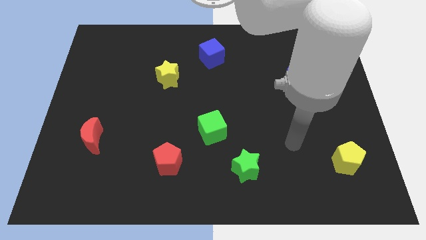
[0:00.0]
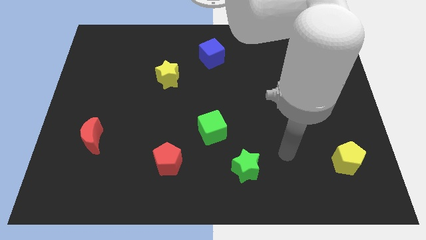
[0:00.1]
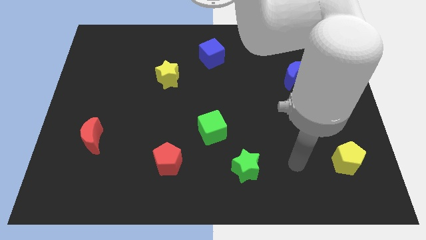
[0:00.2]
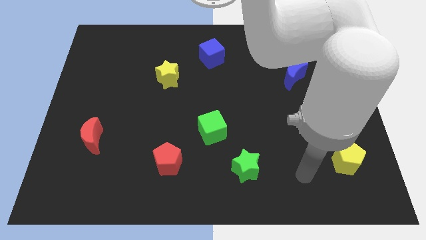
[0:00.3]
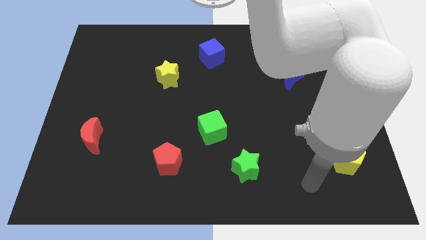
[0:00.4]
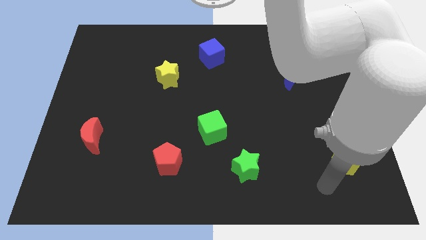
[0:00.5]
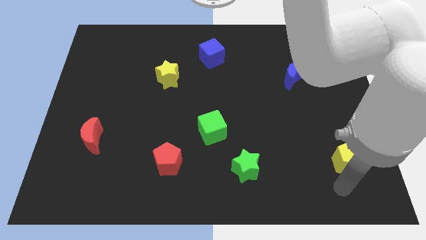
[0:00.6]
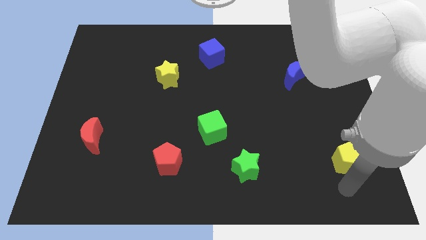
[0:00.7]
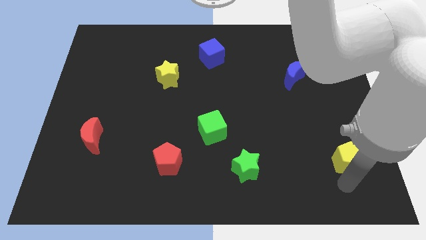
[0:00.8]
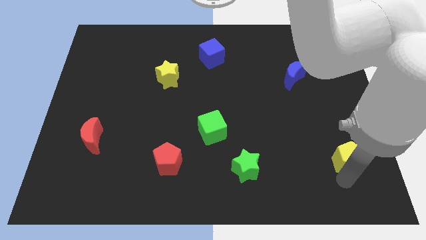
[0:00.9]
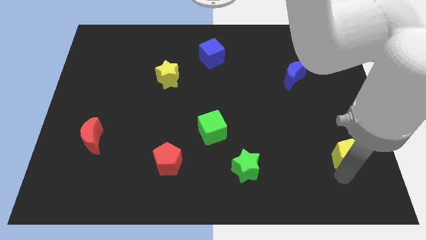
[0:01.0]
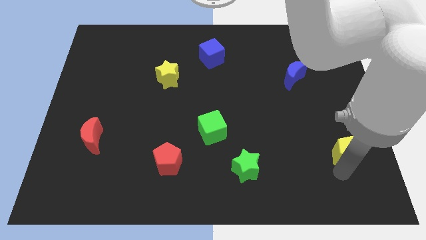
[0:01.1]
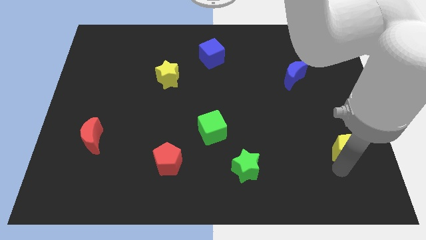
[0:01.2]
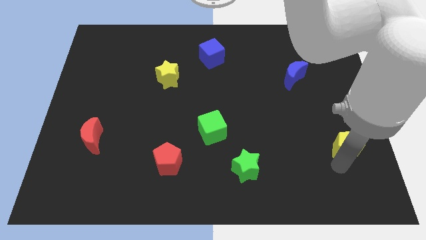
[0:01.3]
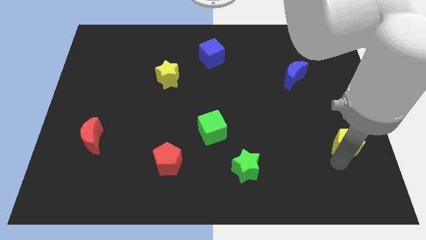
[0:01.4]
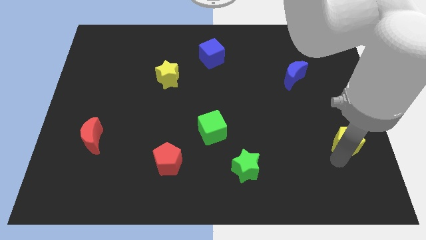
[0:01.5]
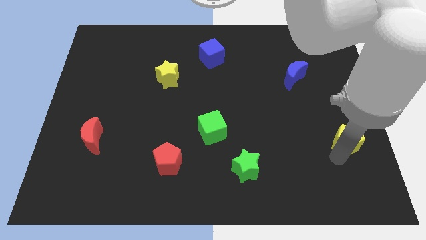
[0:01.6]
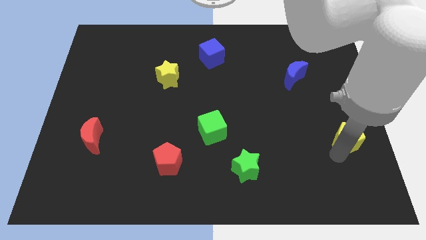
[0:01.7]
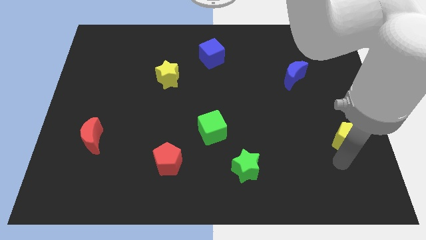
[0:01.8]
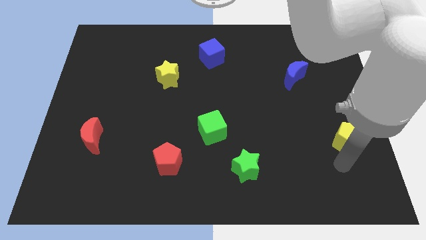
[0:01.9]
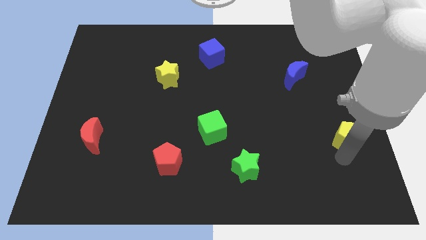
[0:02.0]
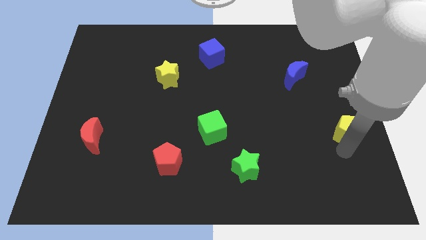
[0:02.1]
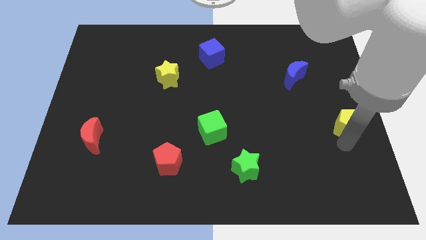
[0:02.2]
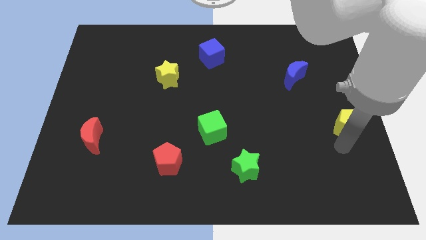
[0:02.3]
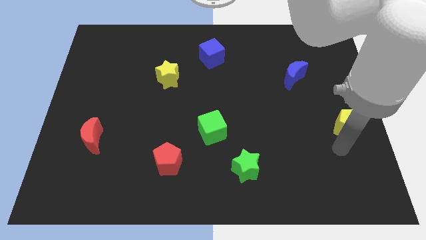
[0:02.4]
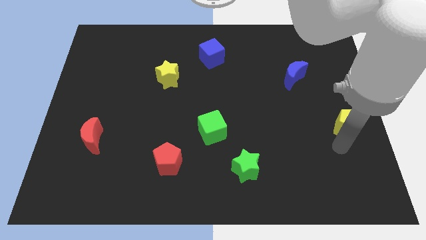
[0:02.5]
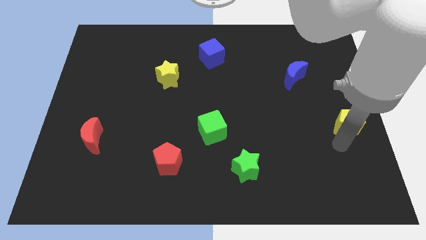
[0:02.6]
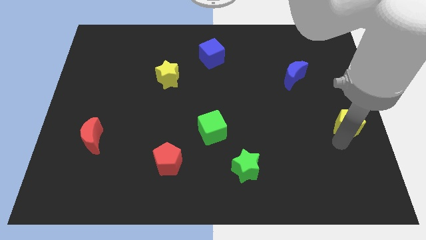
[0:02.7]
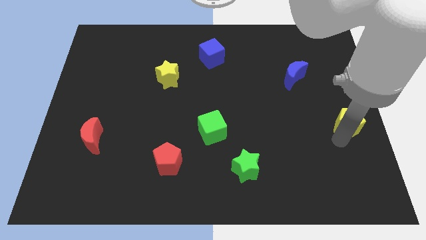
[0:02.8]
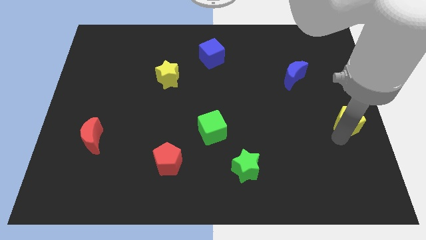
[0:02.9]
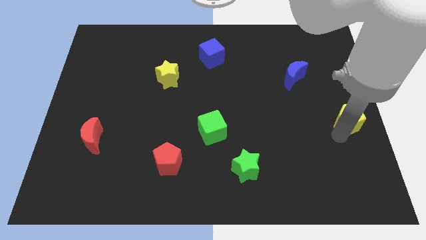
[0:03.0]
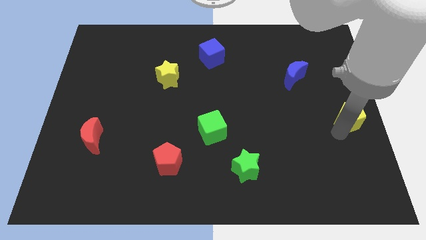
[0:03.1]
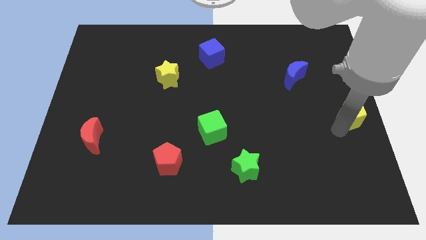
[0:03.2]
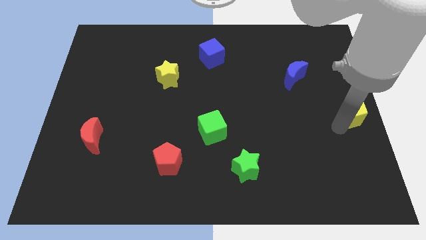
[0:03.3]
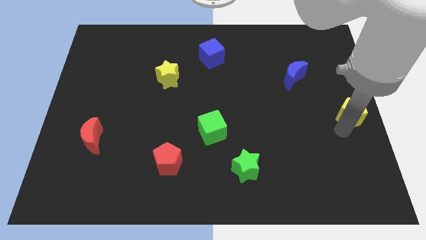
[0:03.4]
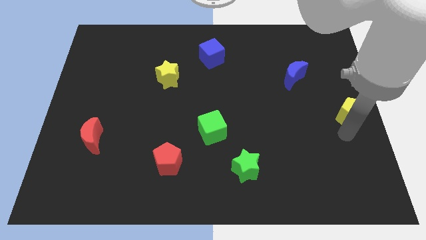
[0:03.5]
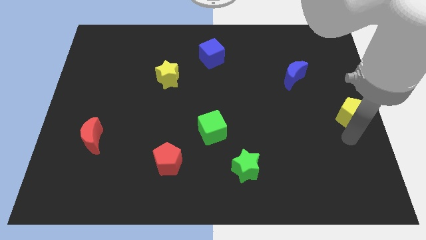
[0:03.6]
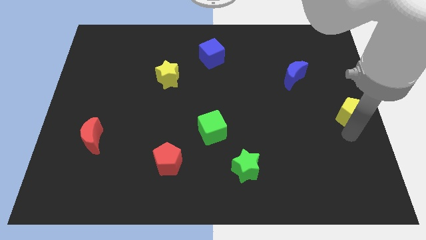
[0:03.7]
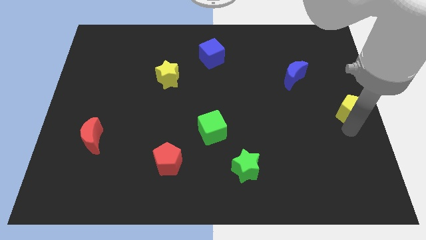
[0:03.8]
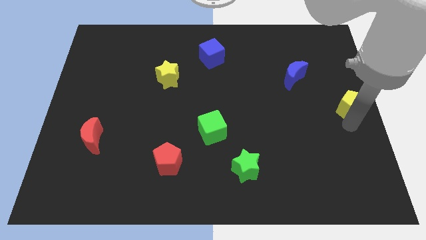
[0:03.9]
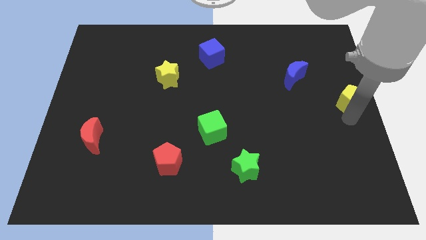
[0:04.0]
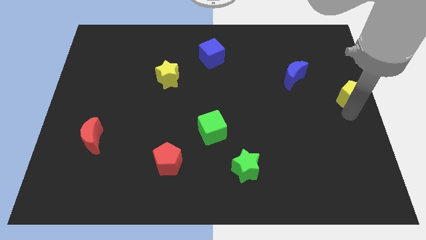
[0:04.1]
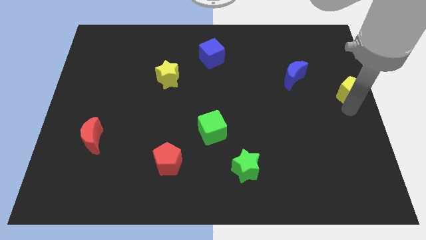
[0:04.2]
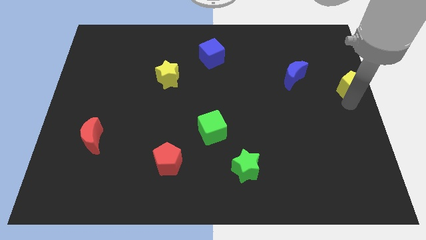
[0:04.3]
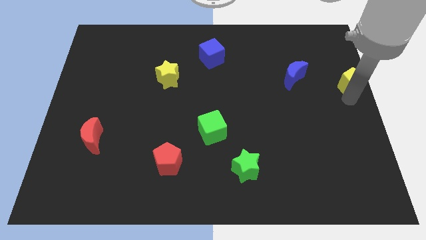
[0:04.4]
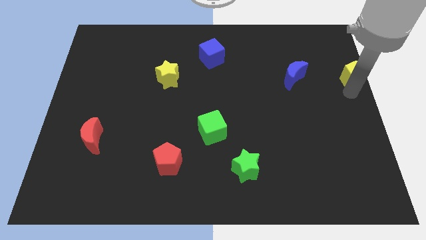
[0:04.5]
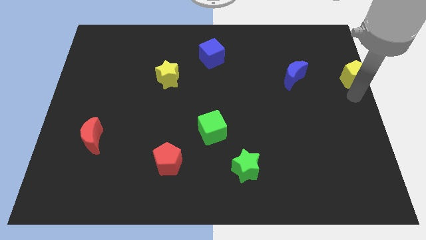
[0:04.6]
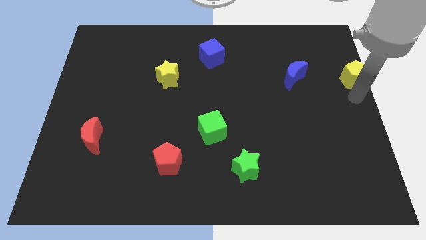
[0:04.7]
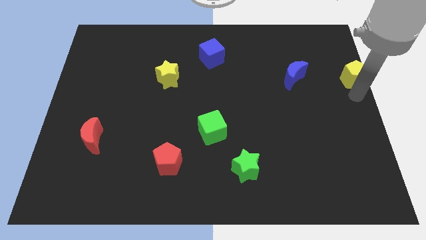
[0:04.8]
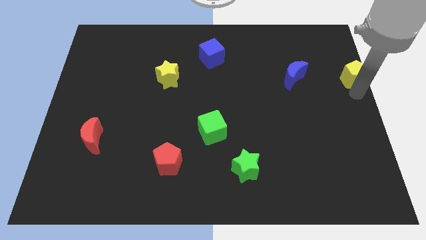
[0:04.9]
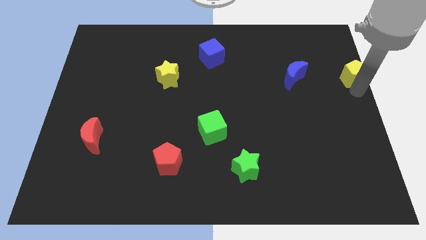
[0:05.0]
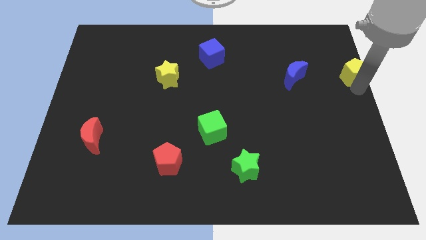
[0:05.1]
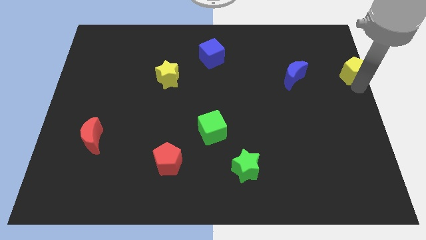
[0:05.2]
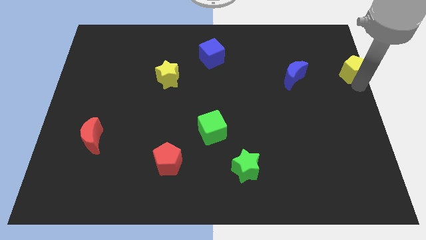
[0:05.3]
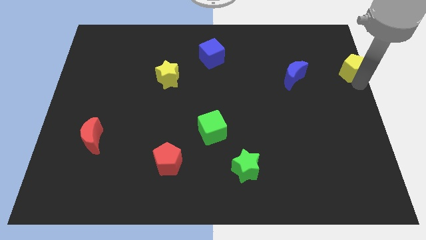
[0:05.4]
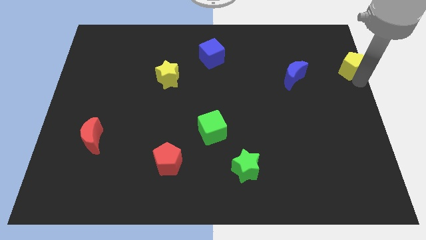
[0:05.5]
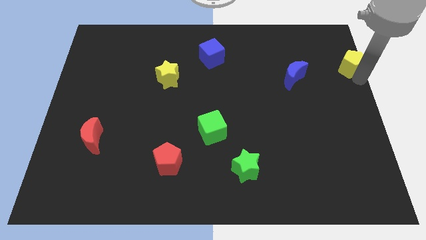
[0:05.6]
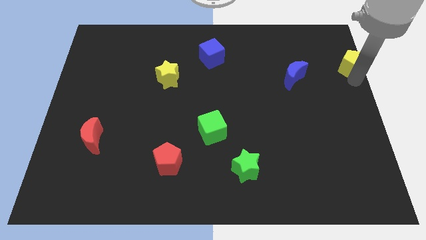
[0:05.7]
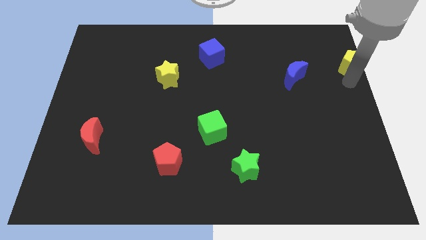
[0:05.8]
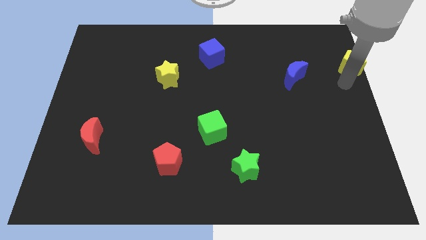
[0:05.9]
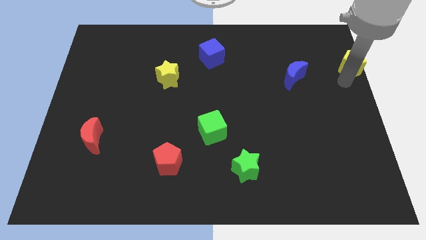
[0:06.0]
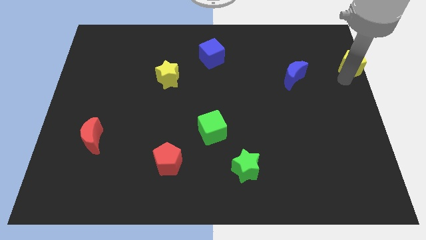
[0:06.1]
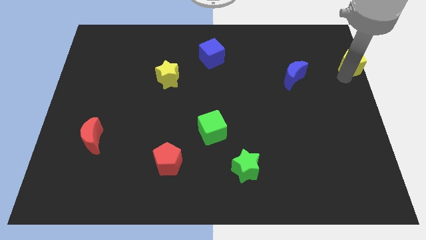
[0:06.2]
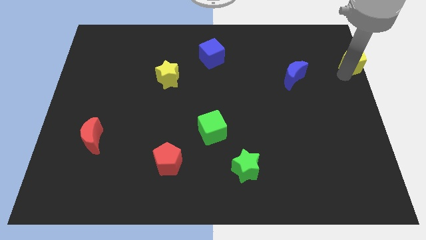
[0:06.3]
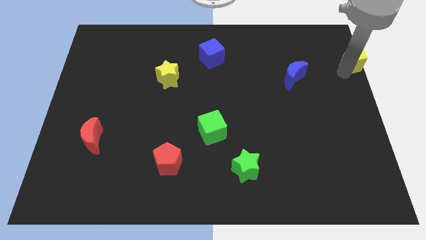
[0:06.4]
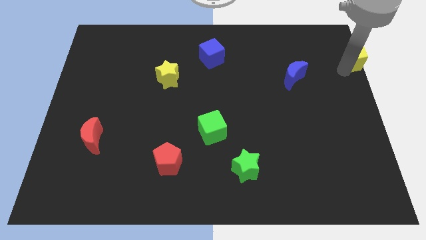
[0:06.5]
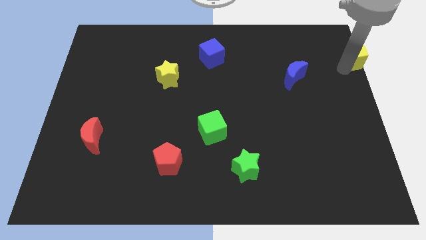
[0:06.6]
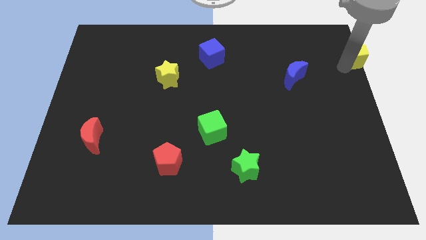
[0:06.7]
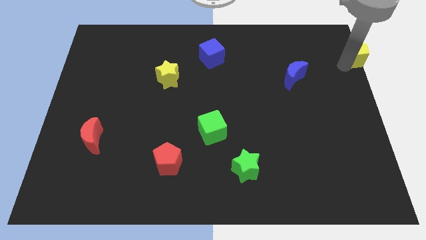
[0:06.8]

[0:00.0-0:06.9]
push the yellow pentagon to the top right
